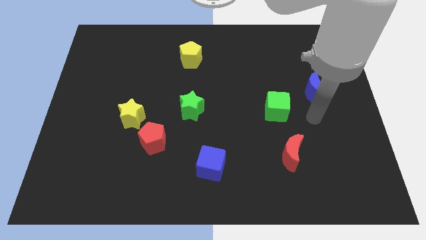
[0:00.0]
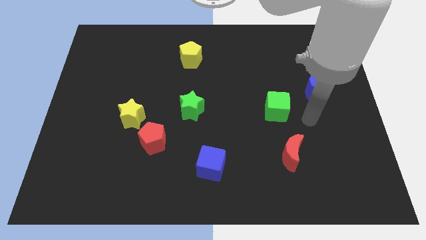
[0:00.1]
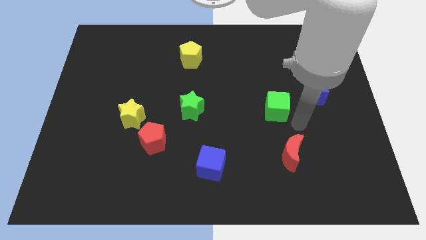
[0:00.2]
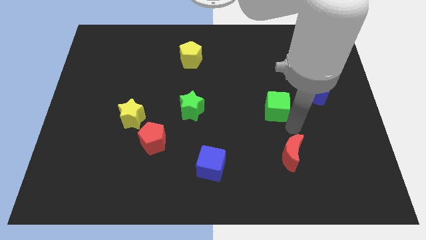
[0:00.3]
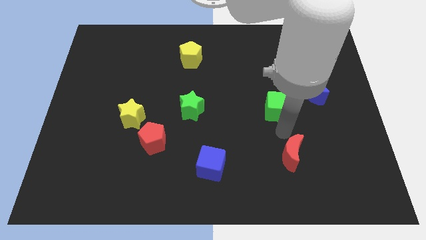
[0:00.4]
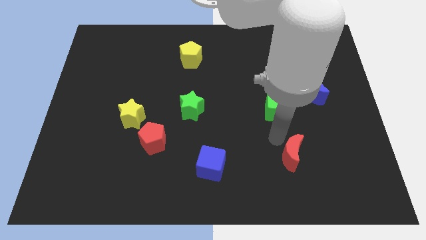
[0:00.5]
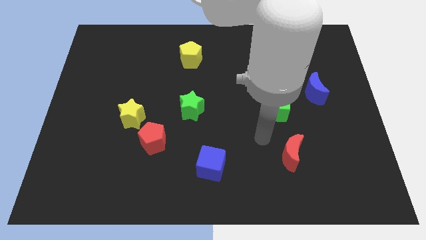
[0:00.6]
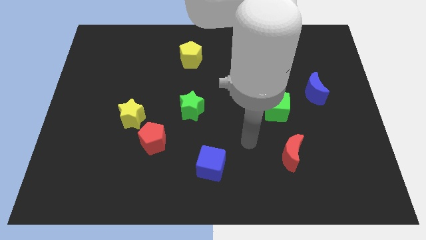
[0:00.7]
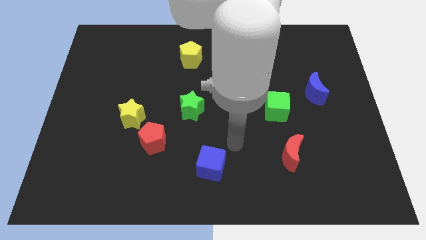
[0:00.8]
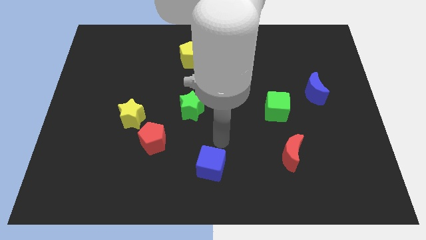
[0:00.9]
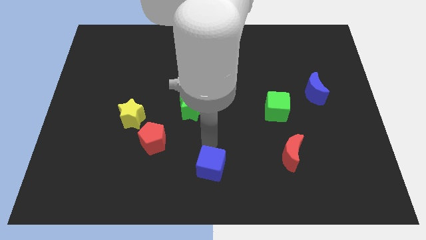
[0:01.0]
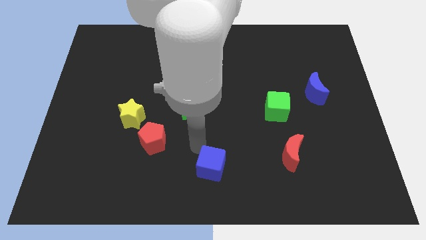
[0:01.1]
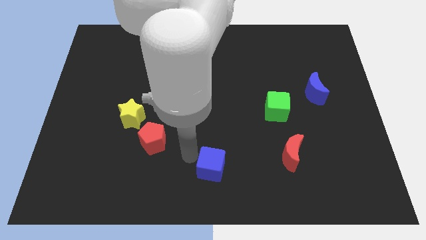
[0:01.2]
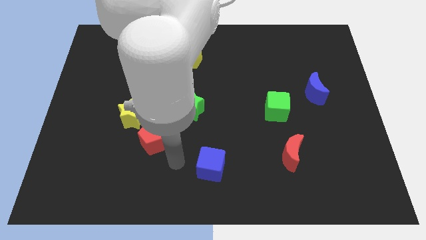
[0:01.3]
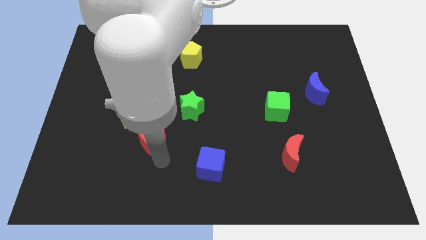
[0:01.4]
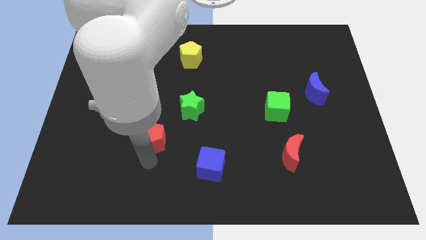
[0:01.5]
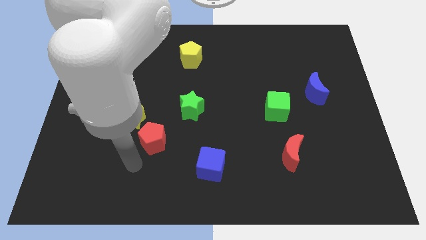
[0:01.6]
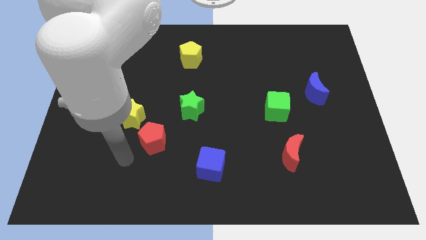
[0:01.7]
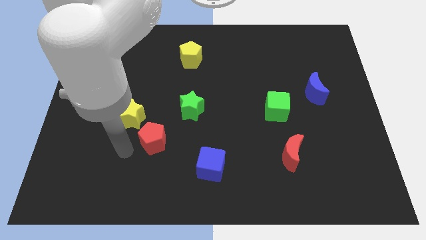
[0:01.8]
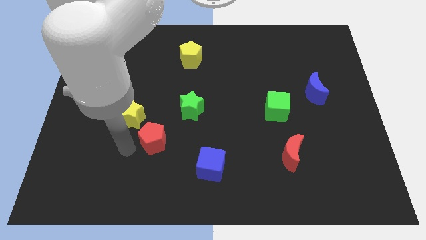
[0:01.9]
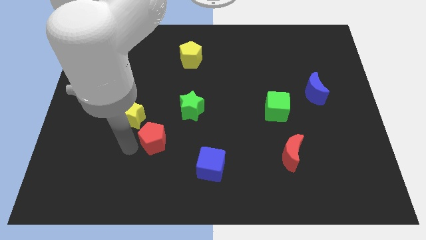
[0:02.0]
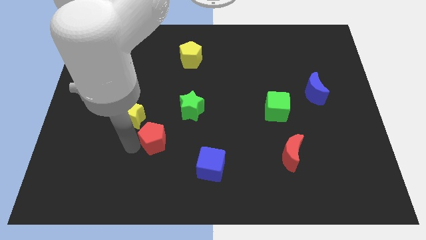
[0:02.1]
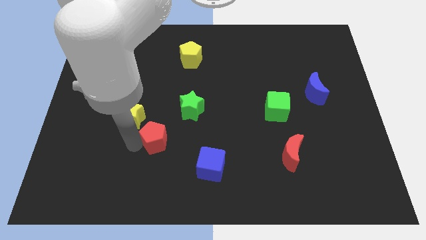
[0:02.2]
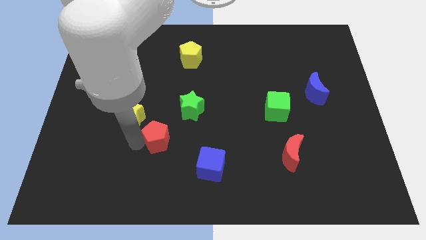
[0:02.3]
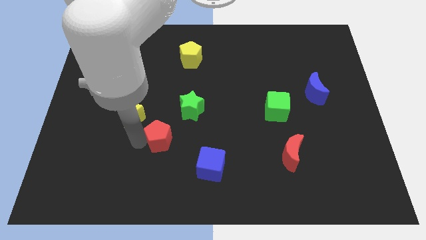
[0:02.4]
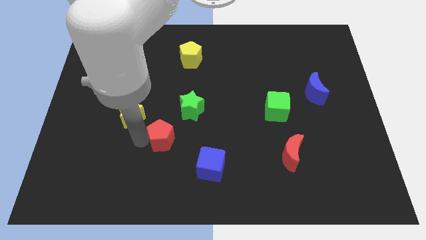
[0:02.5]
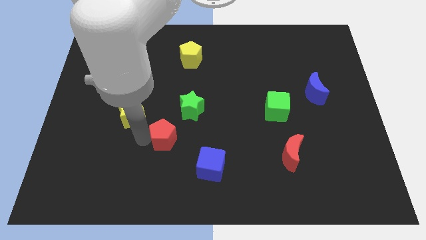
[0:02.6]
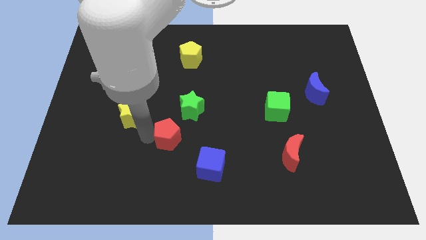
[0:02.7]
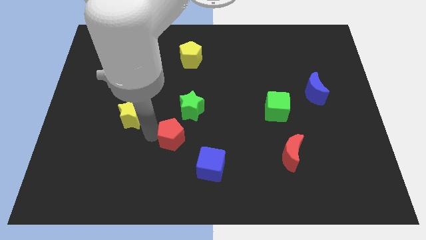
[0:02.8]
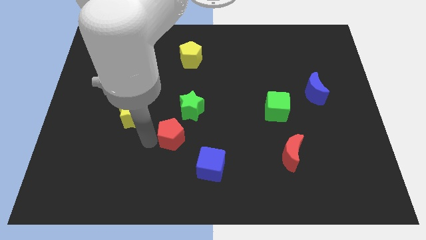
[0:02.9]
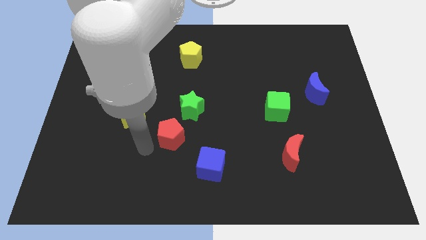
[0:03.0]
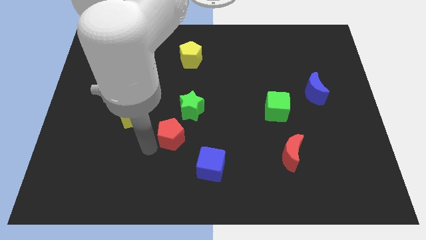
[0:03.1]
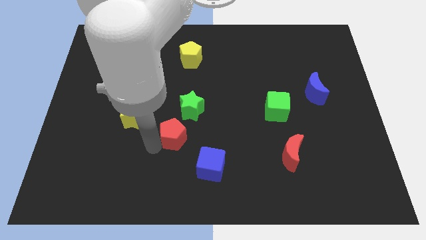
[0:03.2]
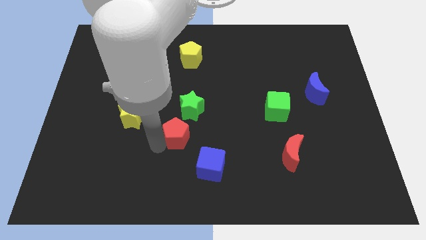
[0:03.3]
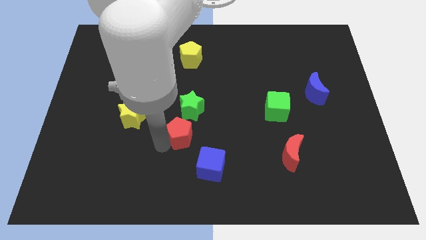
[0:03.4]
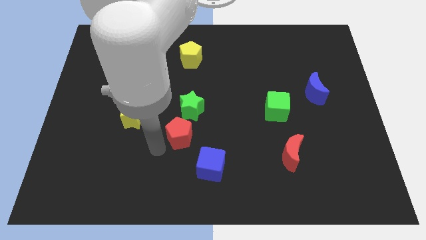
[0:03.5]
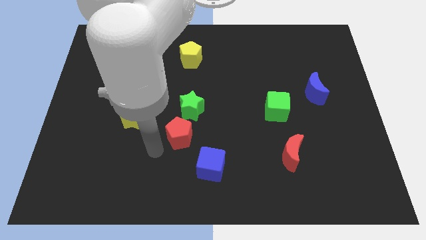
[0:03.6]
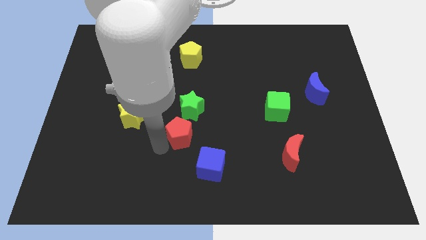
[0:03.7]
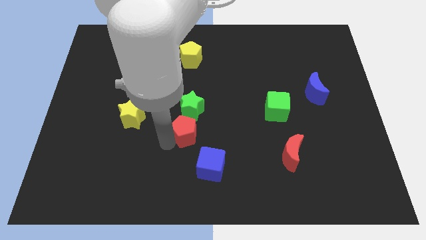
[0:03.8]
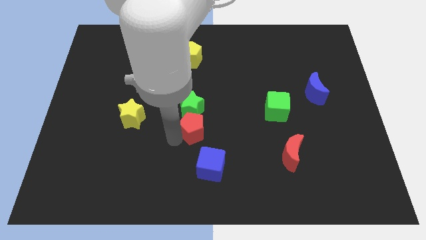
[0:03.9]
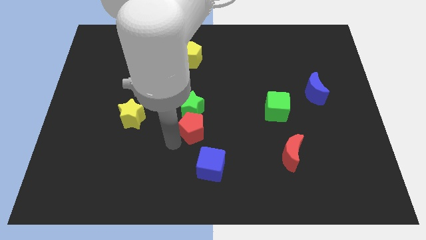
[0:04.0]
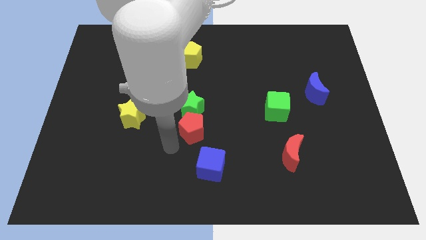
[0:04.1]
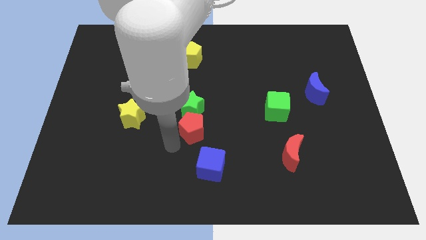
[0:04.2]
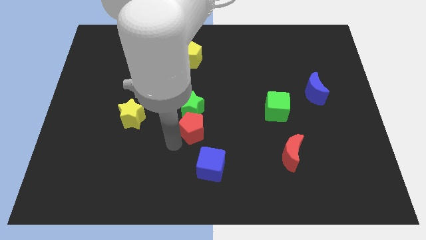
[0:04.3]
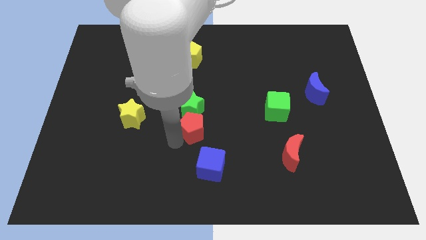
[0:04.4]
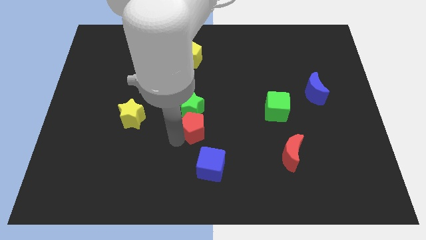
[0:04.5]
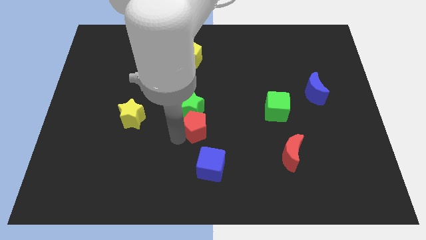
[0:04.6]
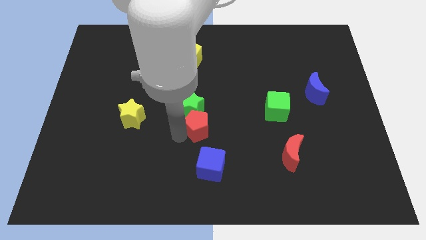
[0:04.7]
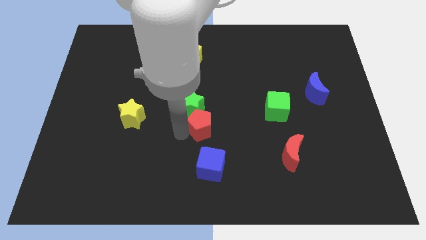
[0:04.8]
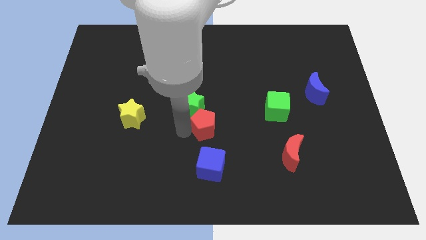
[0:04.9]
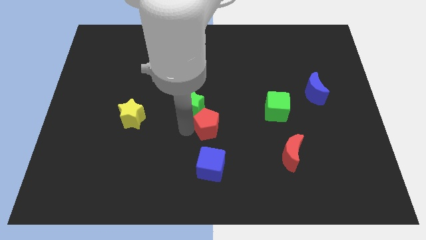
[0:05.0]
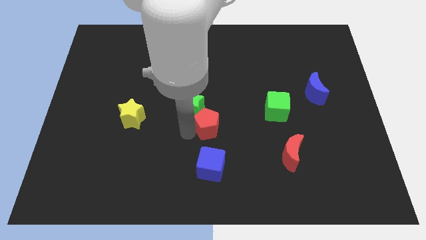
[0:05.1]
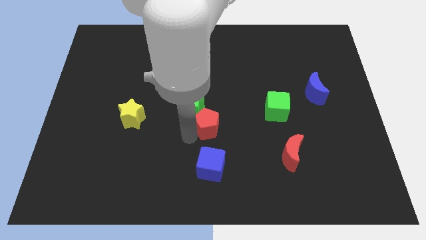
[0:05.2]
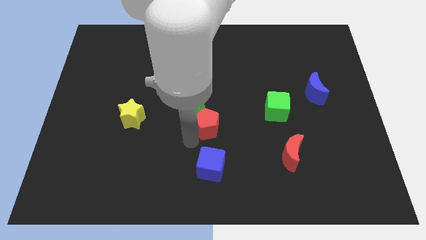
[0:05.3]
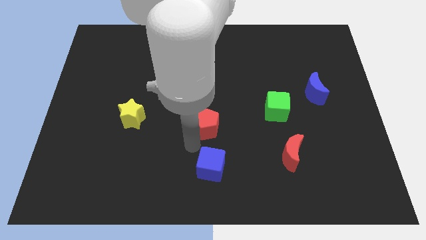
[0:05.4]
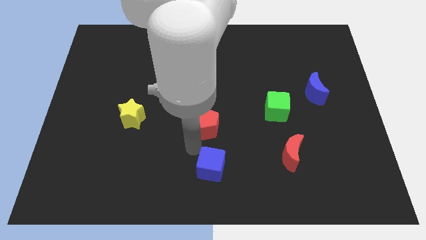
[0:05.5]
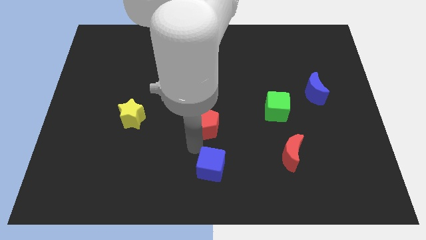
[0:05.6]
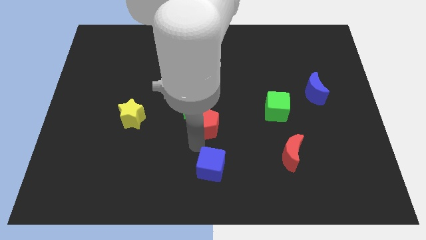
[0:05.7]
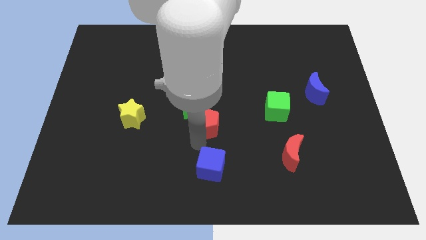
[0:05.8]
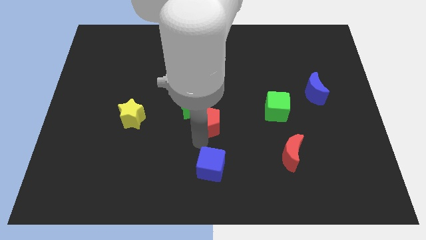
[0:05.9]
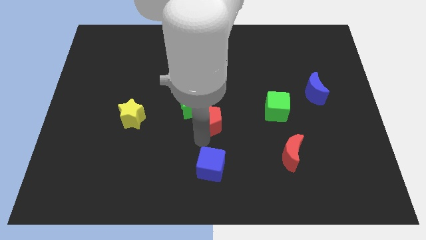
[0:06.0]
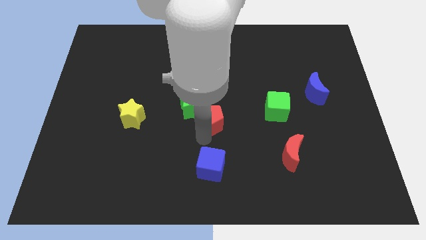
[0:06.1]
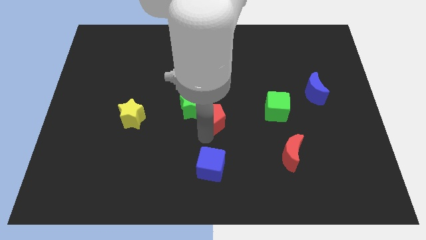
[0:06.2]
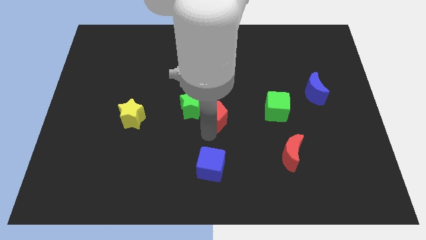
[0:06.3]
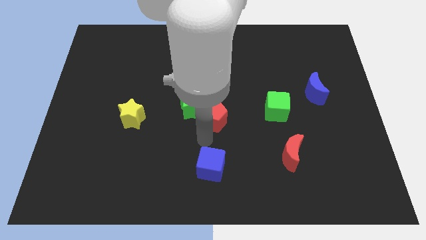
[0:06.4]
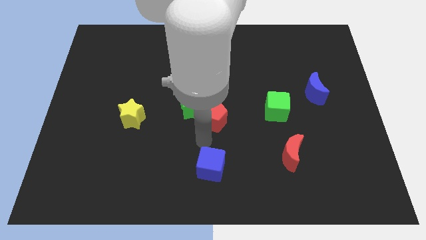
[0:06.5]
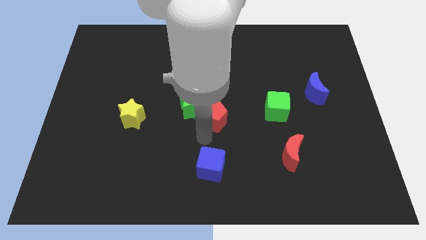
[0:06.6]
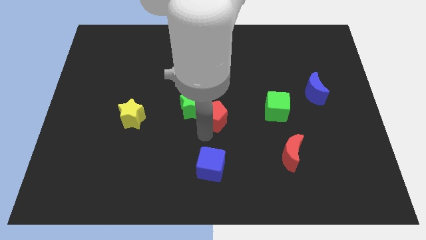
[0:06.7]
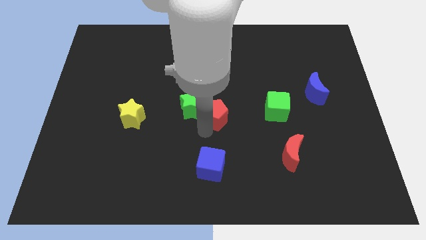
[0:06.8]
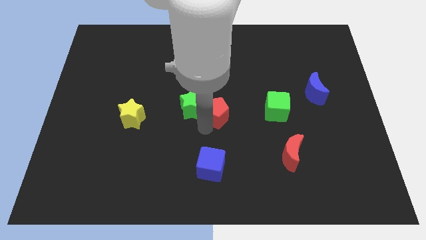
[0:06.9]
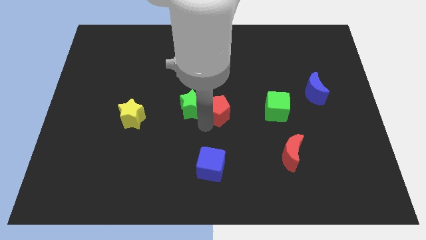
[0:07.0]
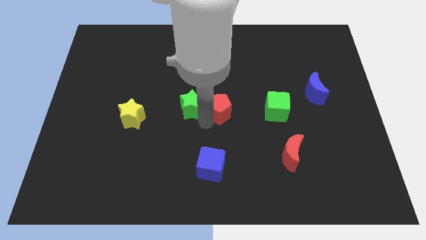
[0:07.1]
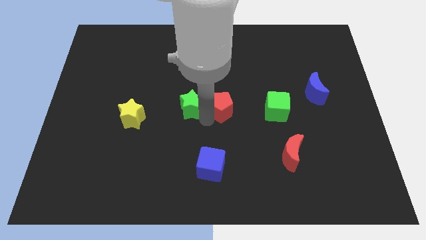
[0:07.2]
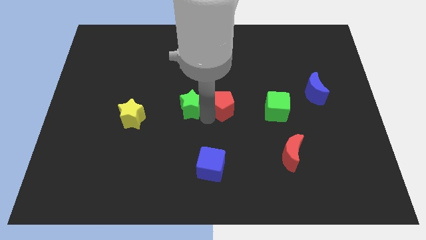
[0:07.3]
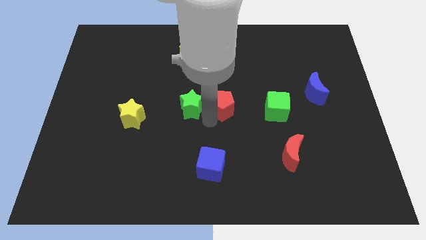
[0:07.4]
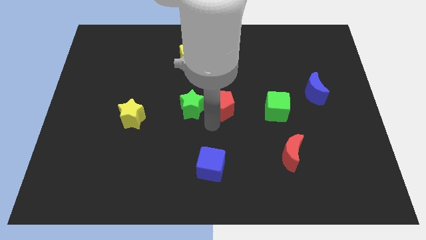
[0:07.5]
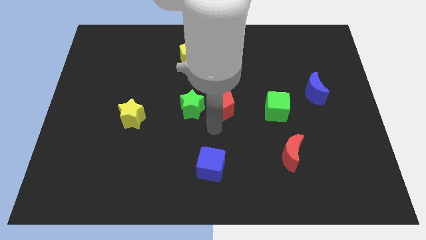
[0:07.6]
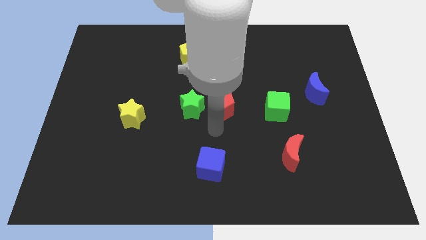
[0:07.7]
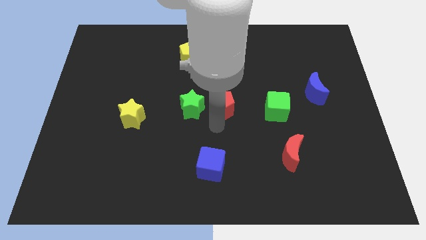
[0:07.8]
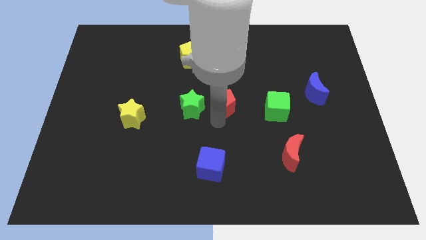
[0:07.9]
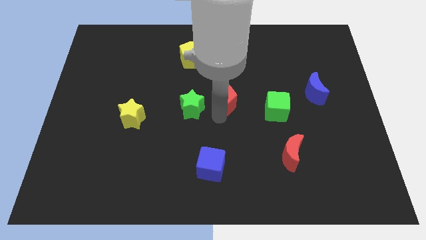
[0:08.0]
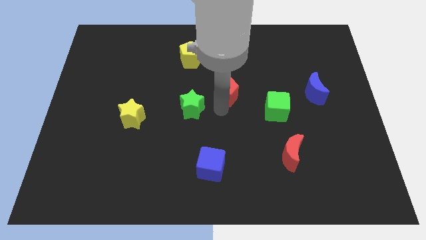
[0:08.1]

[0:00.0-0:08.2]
push the red pentagon diagonally up and to the right
